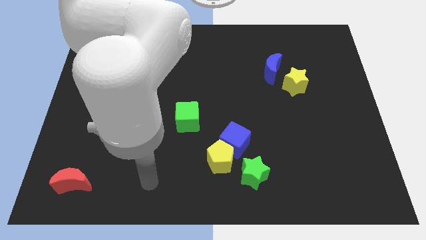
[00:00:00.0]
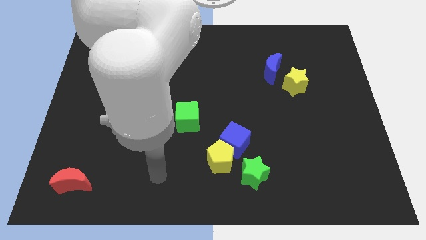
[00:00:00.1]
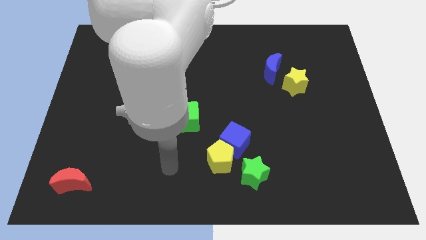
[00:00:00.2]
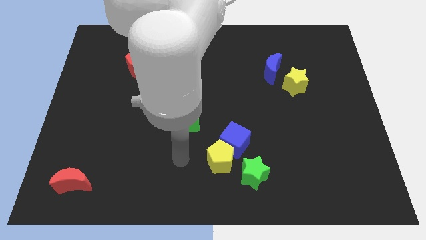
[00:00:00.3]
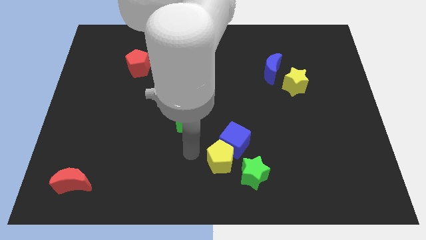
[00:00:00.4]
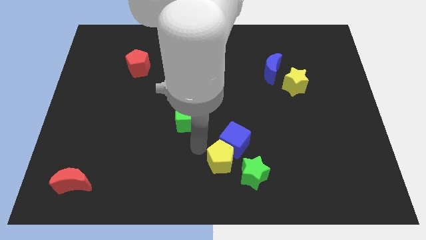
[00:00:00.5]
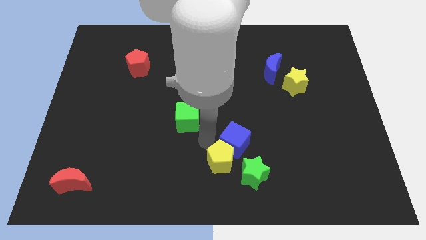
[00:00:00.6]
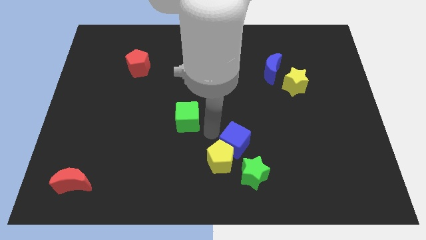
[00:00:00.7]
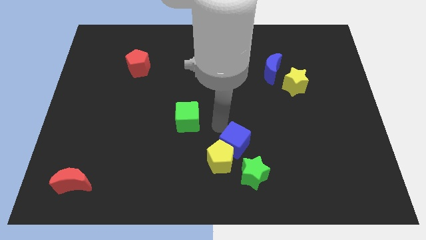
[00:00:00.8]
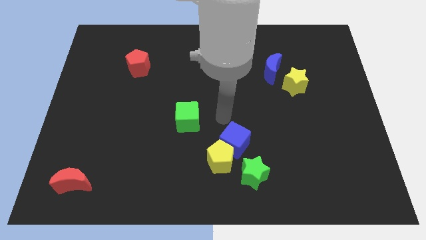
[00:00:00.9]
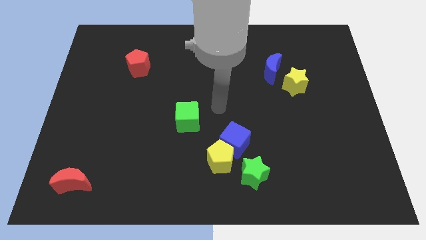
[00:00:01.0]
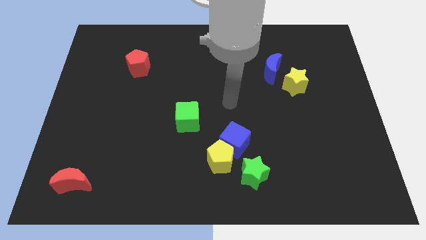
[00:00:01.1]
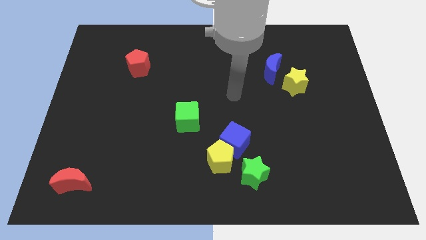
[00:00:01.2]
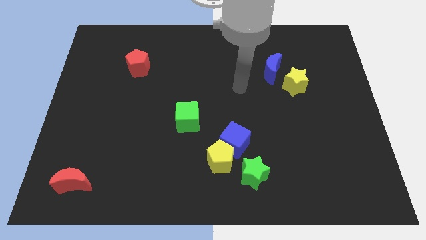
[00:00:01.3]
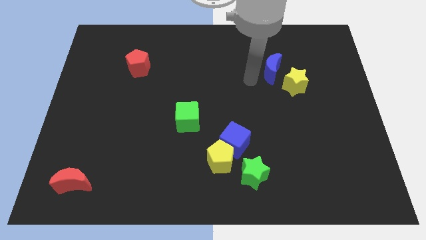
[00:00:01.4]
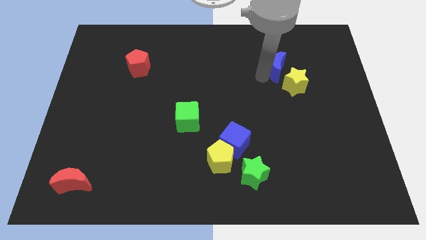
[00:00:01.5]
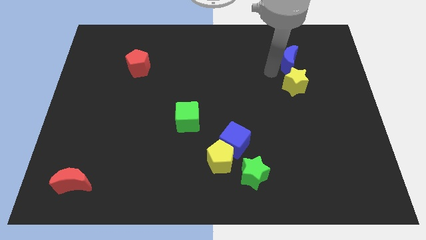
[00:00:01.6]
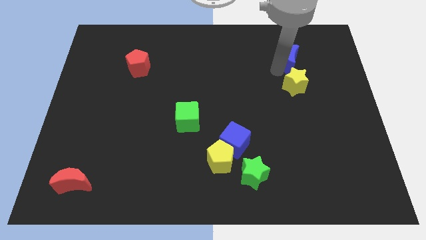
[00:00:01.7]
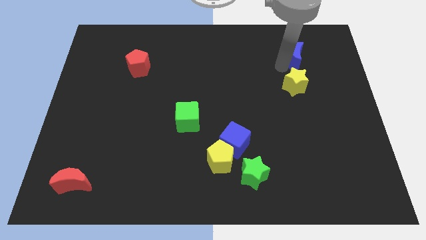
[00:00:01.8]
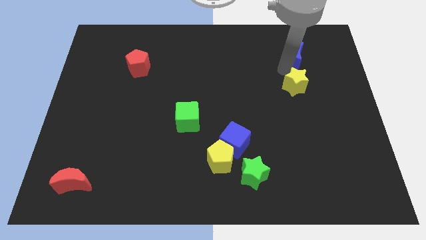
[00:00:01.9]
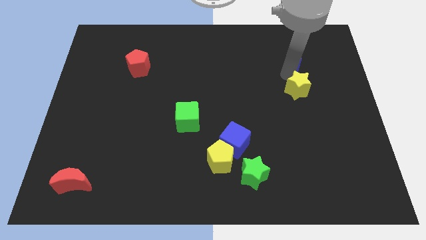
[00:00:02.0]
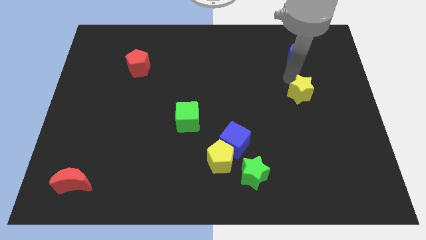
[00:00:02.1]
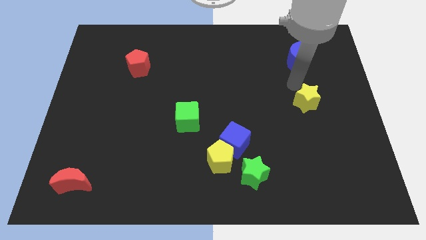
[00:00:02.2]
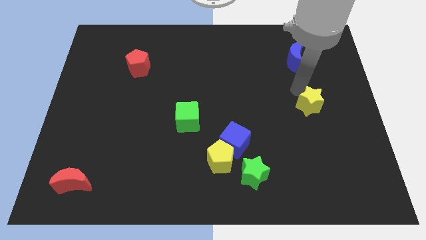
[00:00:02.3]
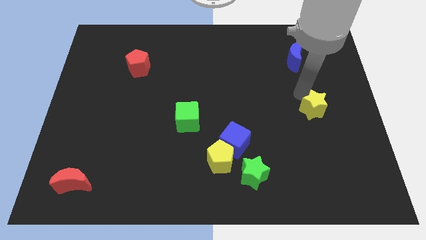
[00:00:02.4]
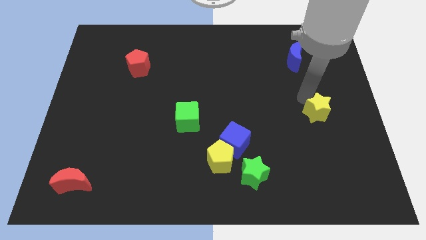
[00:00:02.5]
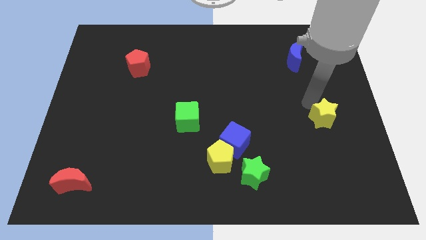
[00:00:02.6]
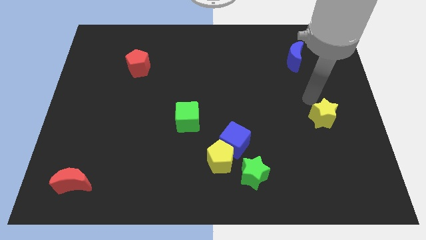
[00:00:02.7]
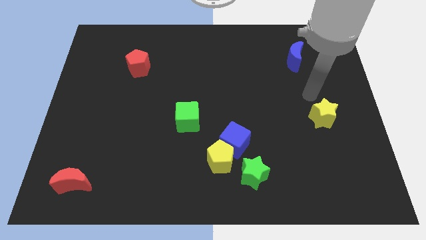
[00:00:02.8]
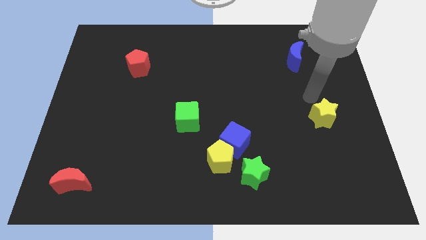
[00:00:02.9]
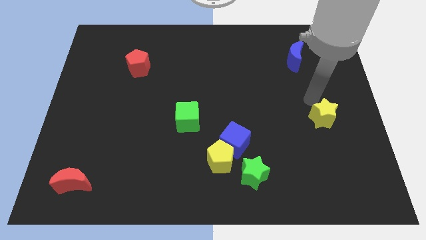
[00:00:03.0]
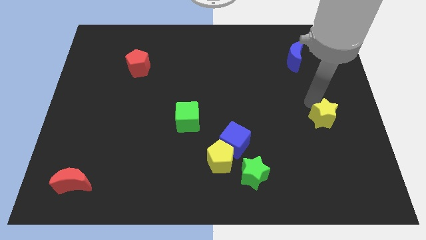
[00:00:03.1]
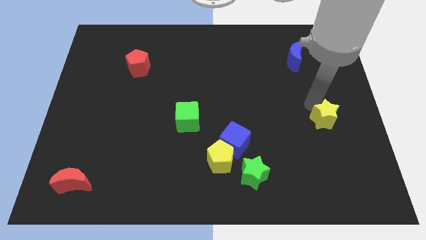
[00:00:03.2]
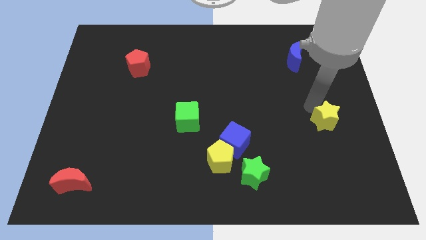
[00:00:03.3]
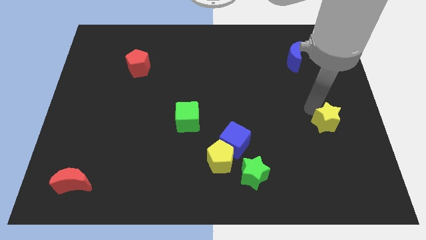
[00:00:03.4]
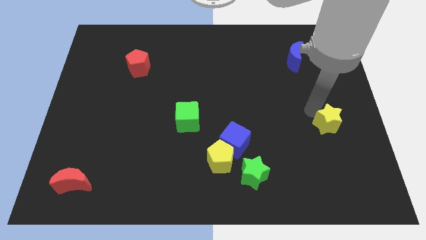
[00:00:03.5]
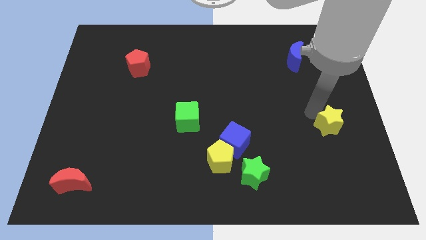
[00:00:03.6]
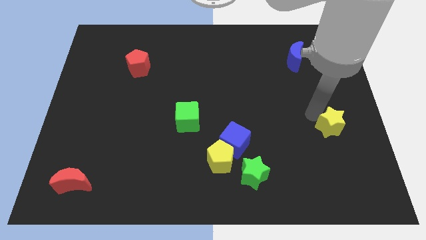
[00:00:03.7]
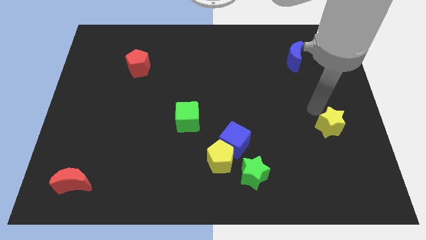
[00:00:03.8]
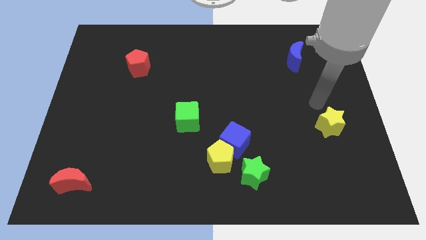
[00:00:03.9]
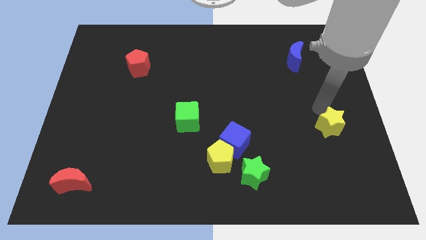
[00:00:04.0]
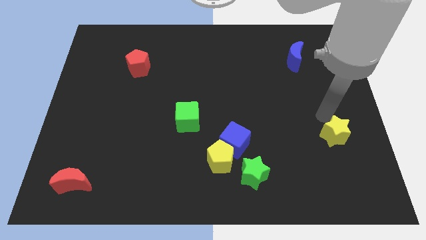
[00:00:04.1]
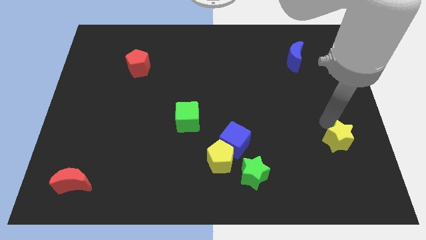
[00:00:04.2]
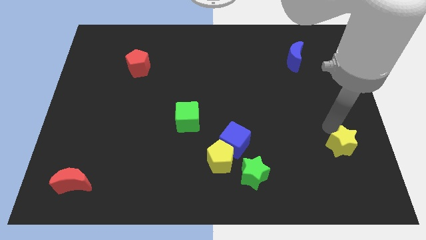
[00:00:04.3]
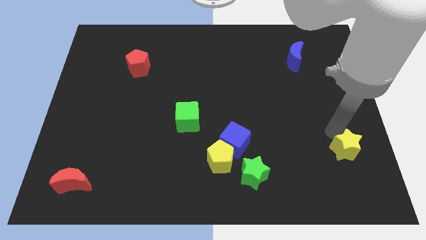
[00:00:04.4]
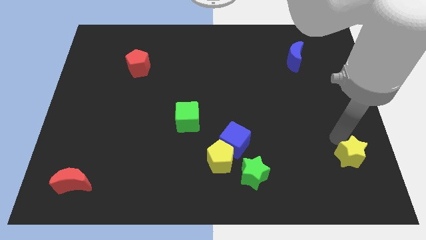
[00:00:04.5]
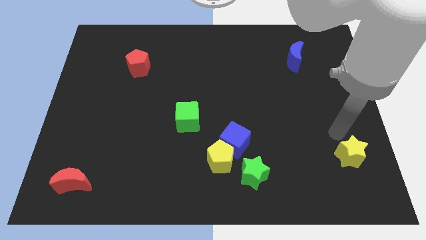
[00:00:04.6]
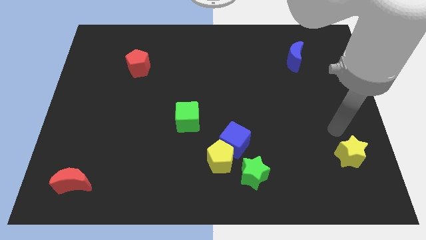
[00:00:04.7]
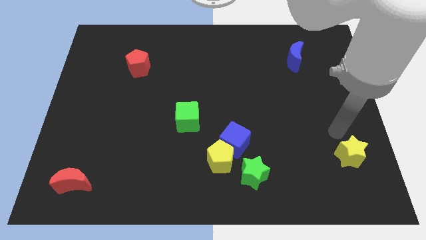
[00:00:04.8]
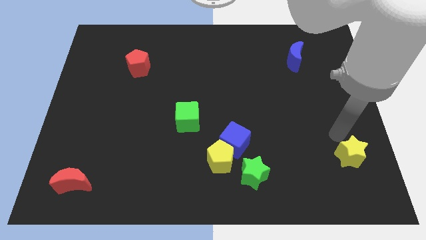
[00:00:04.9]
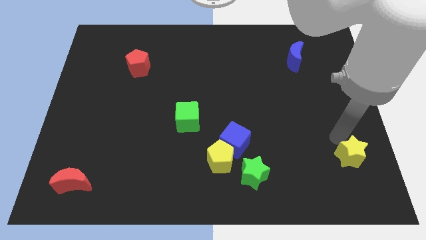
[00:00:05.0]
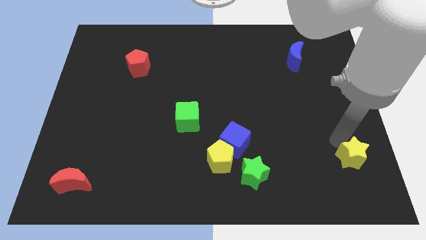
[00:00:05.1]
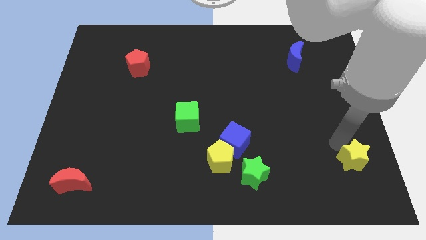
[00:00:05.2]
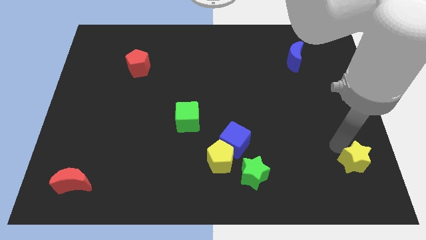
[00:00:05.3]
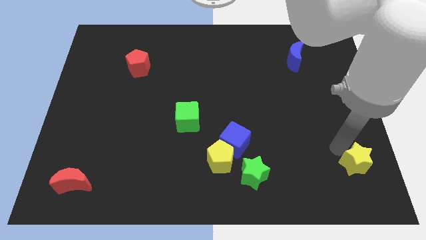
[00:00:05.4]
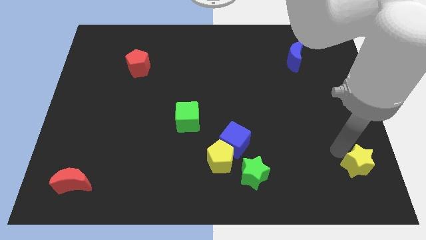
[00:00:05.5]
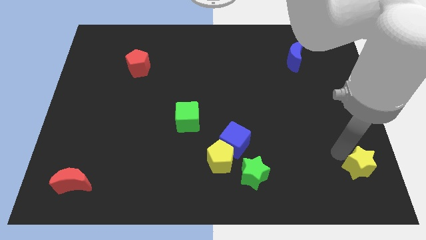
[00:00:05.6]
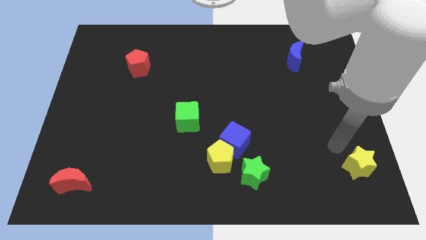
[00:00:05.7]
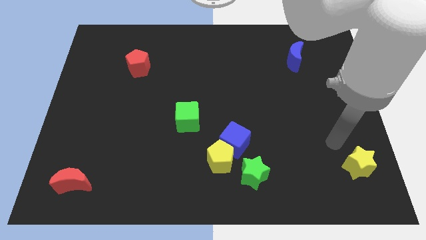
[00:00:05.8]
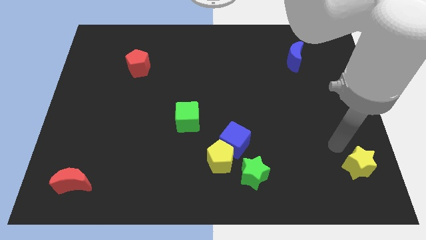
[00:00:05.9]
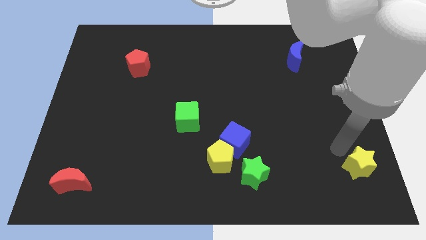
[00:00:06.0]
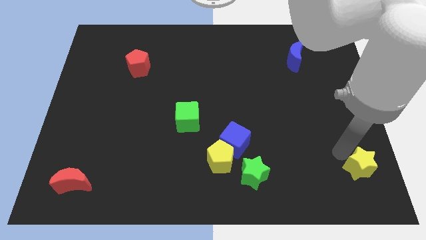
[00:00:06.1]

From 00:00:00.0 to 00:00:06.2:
push the yellow star to the lower right corner

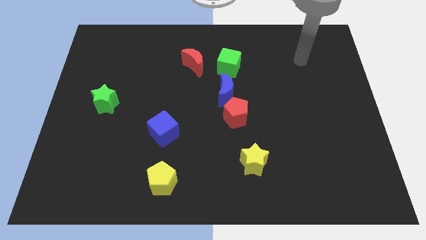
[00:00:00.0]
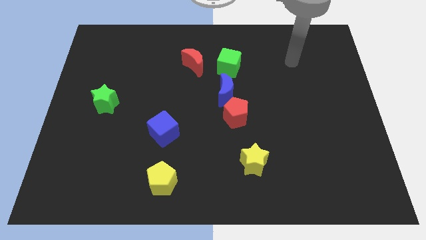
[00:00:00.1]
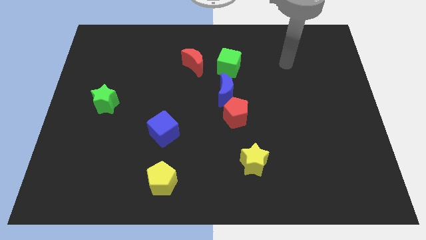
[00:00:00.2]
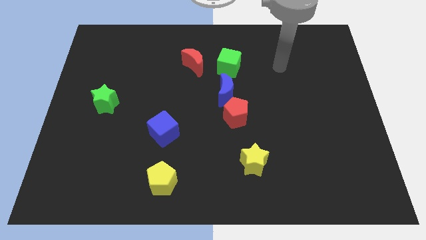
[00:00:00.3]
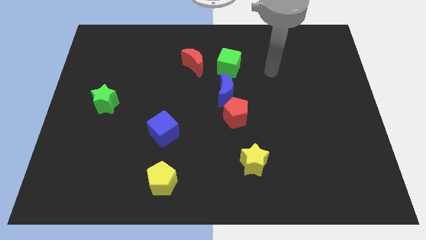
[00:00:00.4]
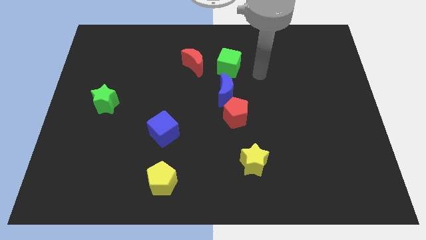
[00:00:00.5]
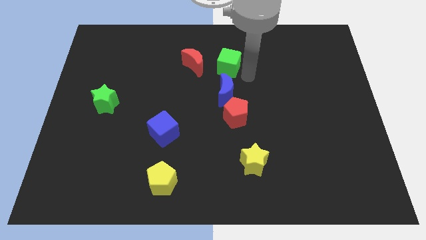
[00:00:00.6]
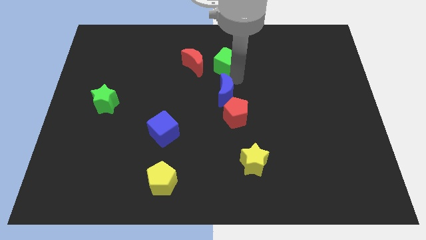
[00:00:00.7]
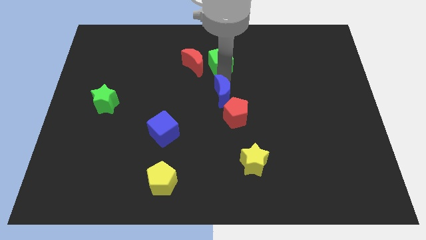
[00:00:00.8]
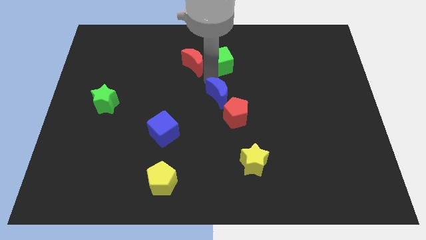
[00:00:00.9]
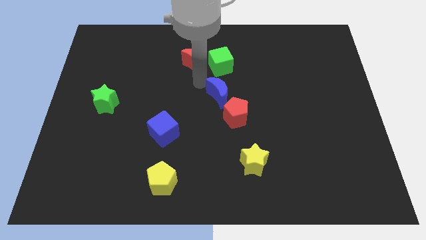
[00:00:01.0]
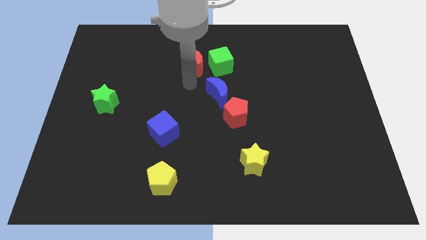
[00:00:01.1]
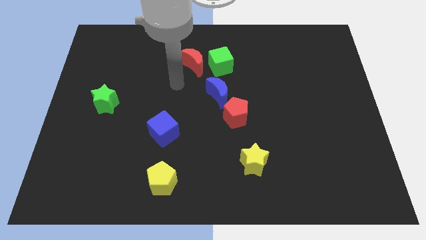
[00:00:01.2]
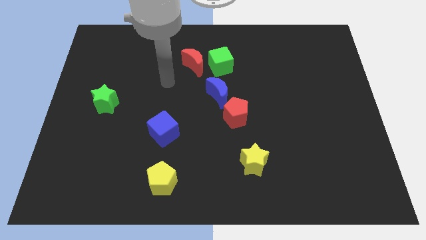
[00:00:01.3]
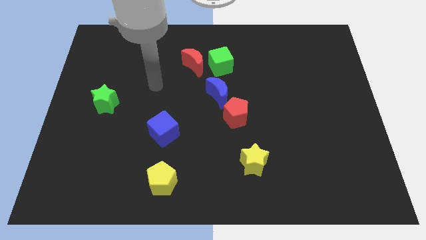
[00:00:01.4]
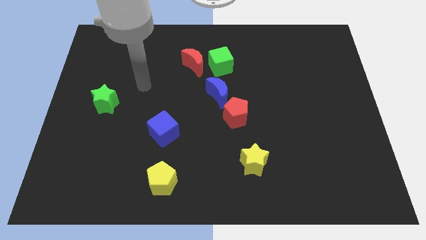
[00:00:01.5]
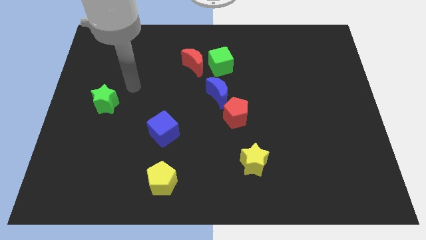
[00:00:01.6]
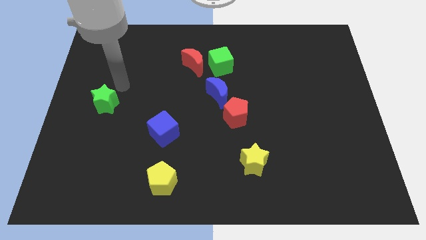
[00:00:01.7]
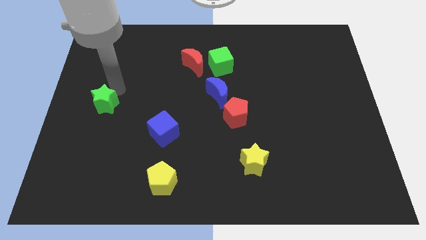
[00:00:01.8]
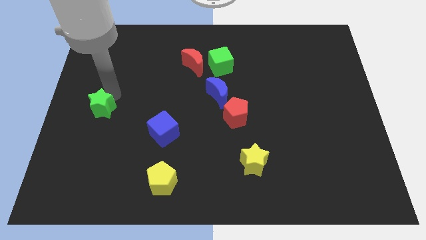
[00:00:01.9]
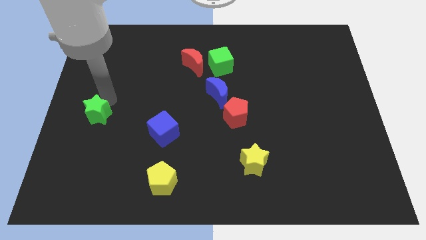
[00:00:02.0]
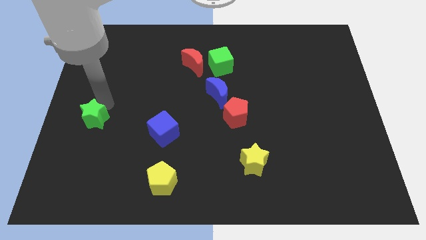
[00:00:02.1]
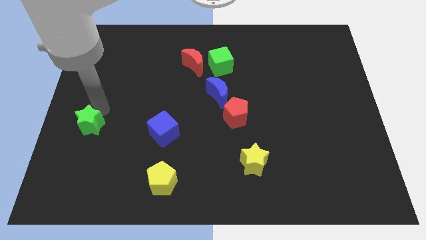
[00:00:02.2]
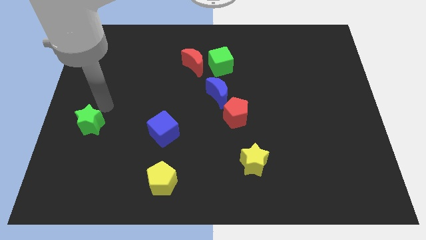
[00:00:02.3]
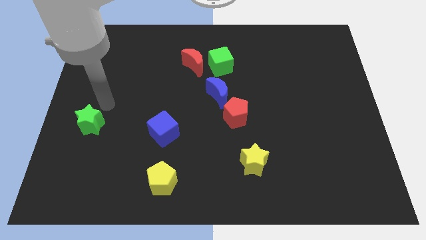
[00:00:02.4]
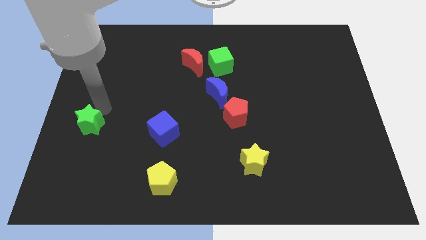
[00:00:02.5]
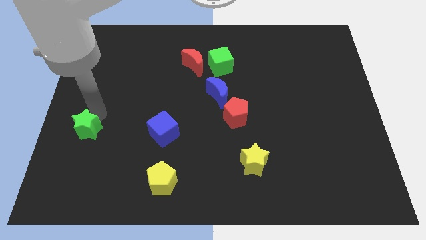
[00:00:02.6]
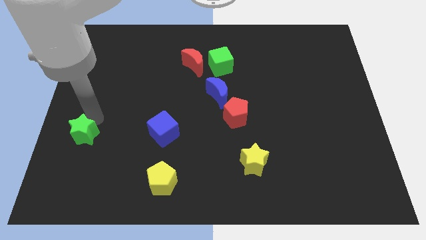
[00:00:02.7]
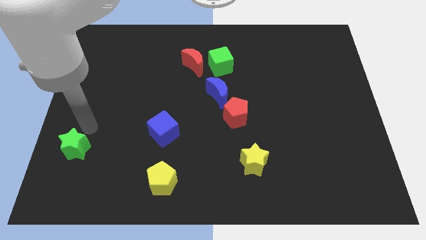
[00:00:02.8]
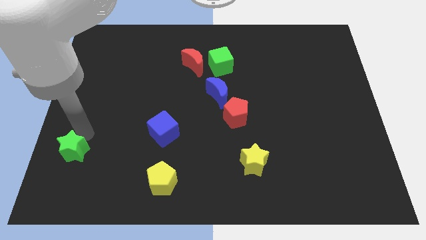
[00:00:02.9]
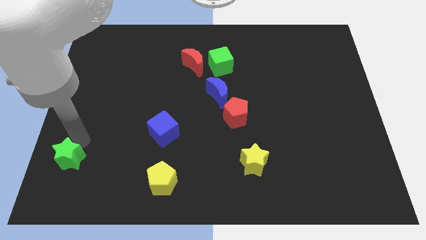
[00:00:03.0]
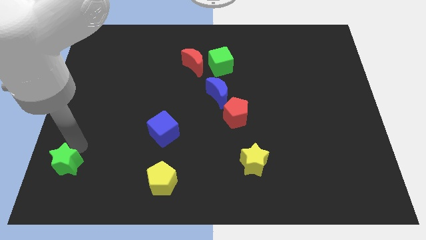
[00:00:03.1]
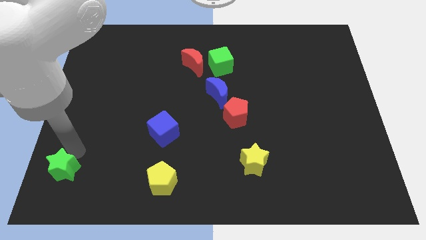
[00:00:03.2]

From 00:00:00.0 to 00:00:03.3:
slide the green star to the lower left corner
